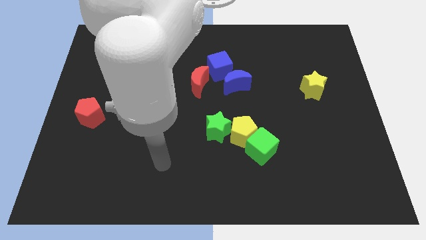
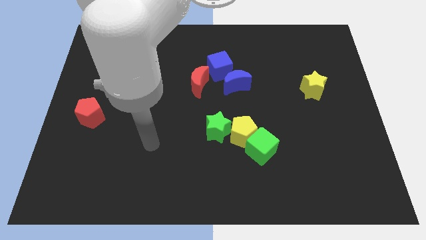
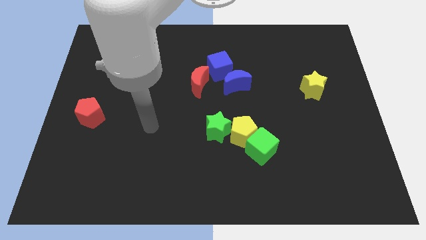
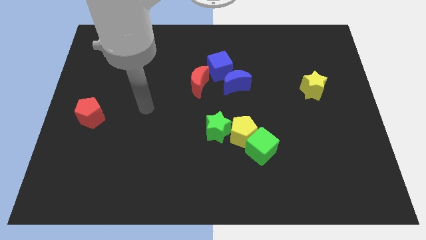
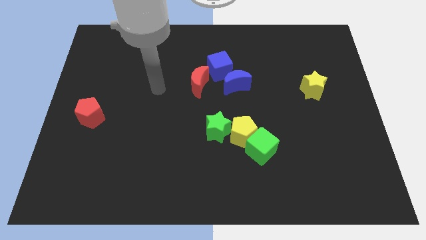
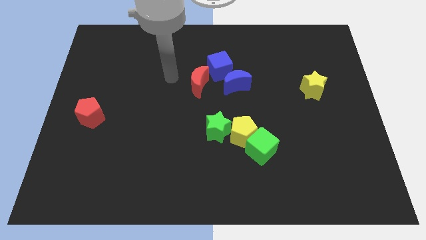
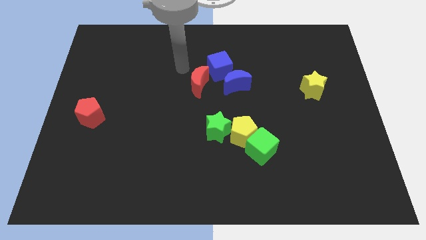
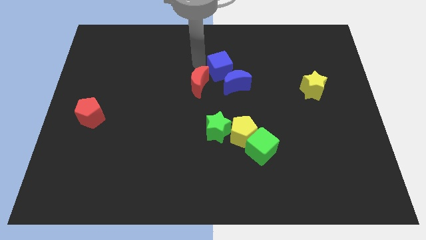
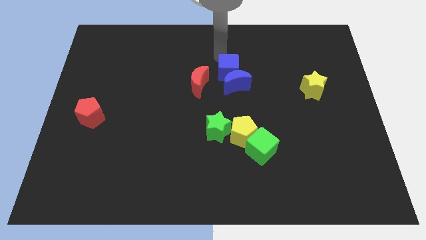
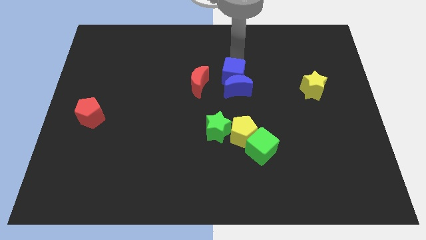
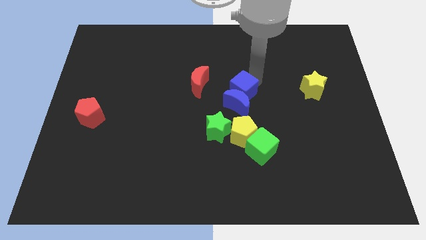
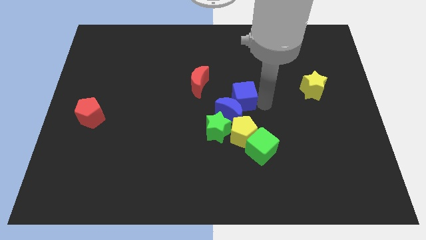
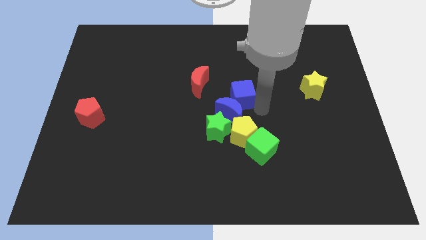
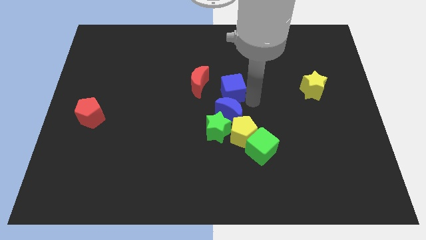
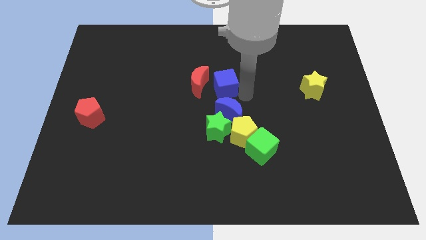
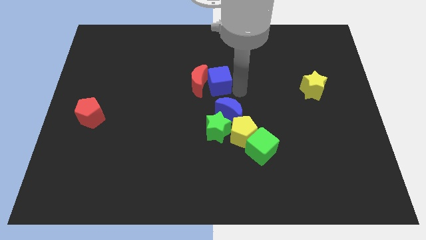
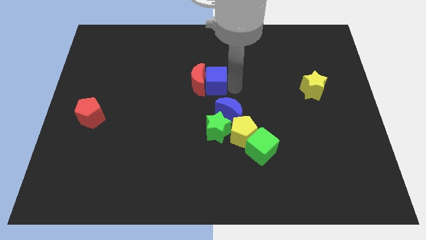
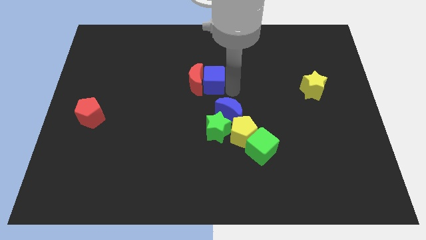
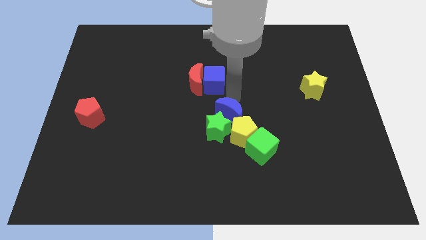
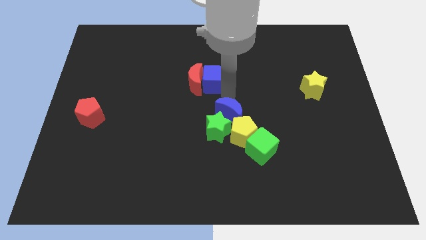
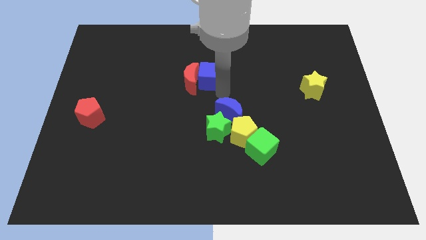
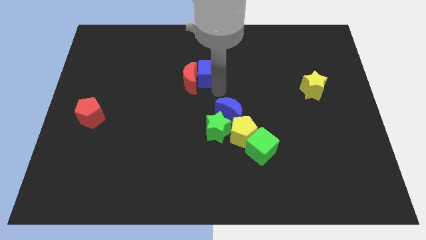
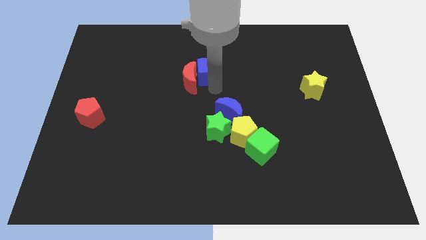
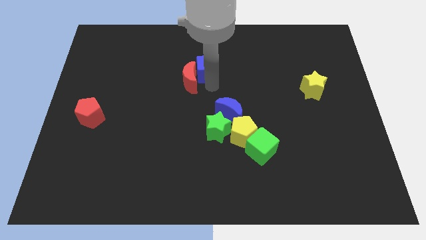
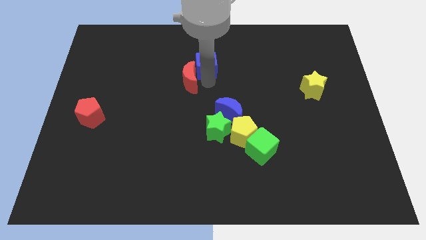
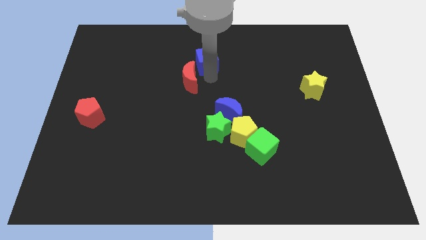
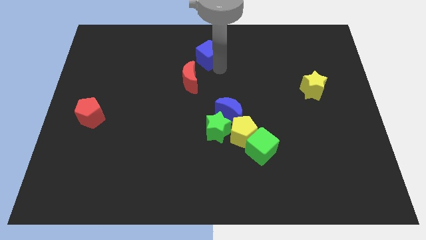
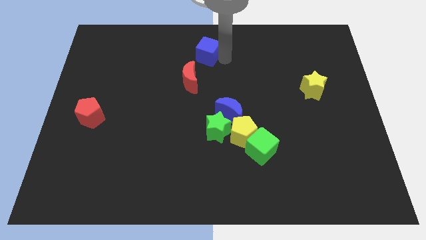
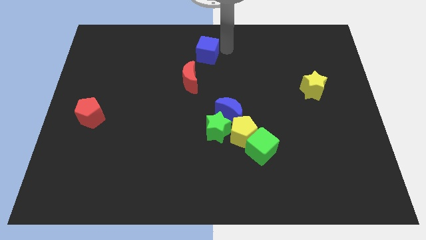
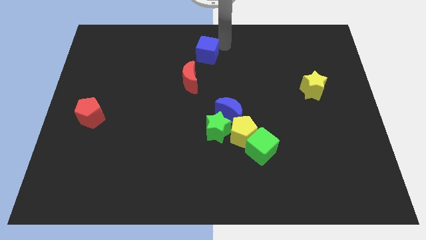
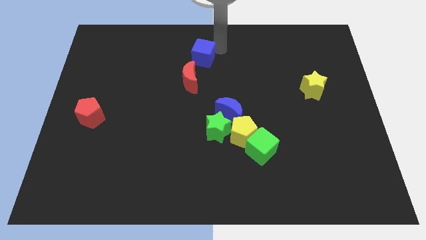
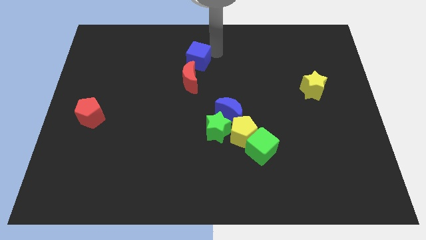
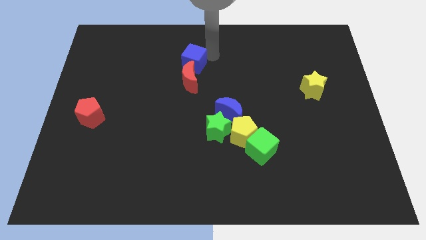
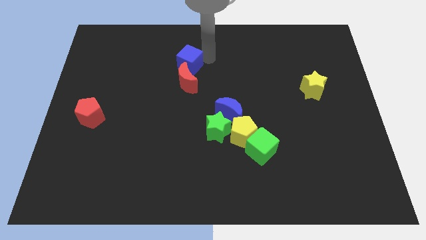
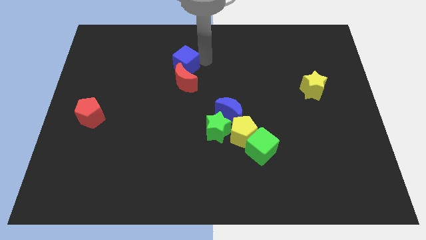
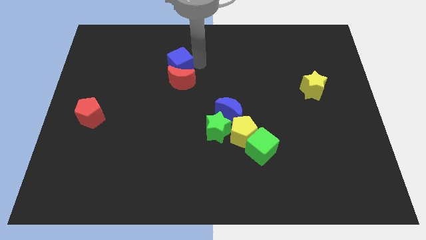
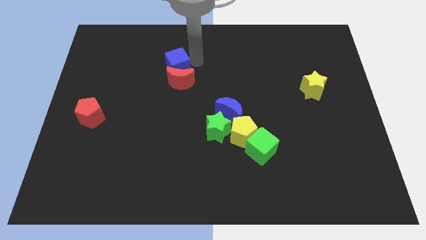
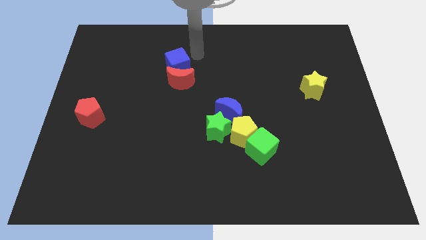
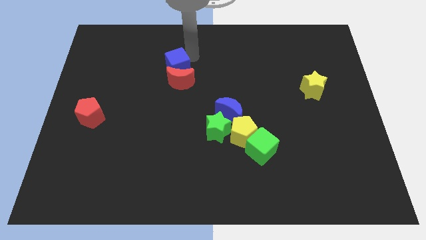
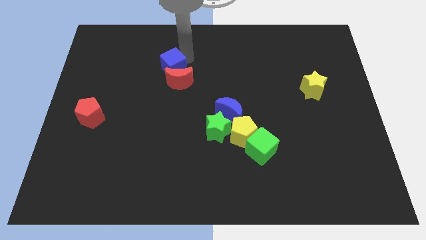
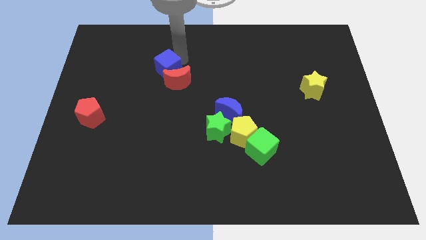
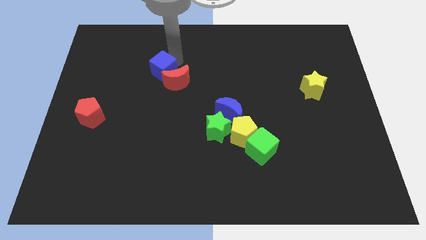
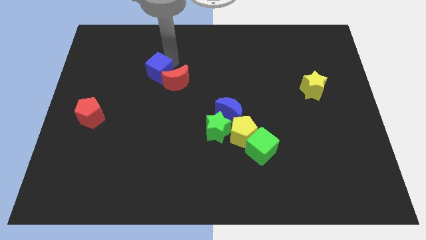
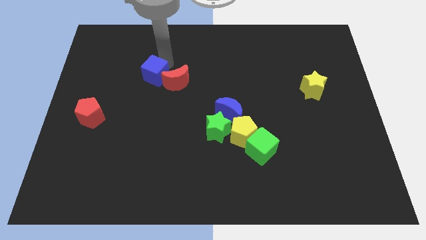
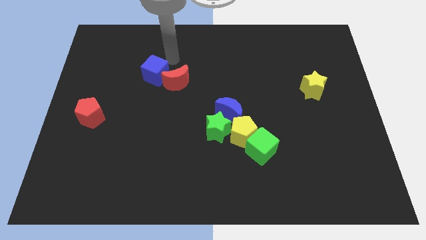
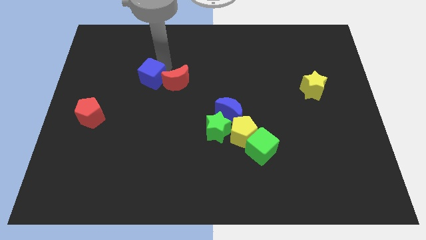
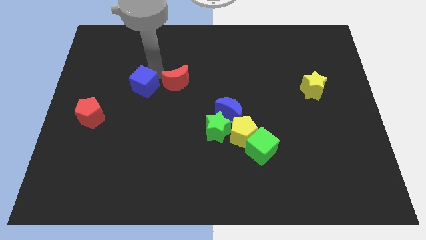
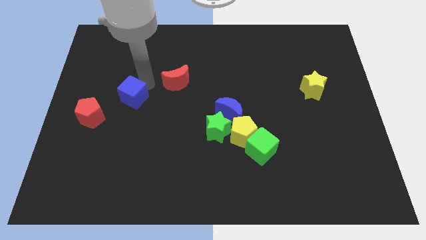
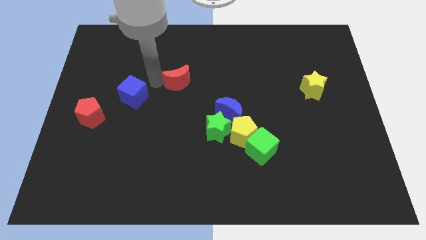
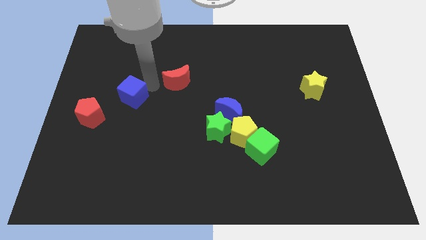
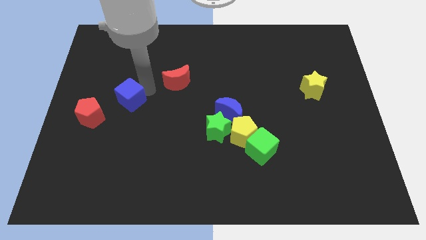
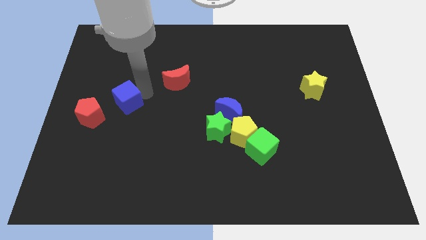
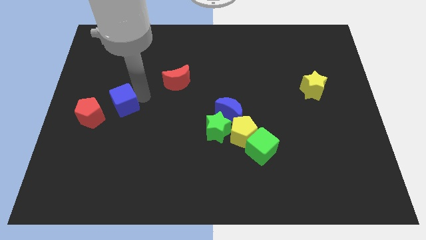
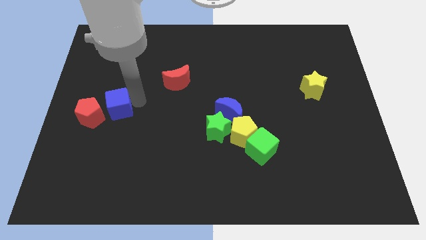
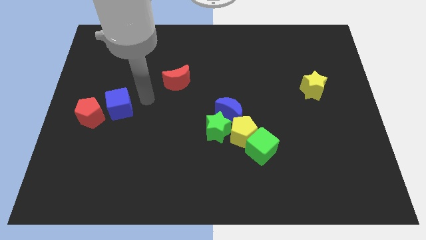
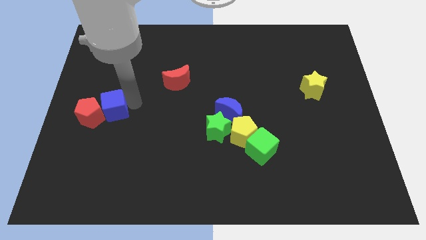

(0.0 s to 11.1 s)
move the blue cube to the red pentagon

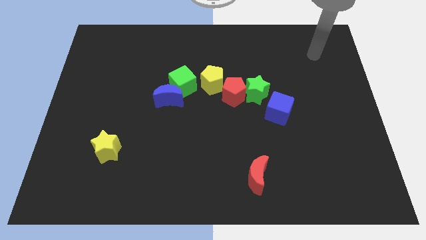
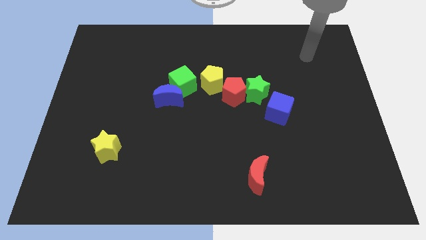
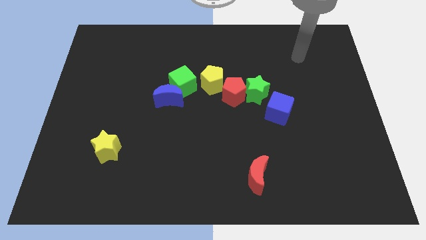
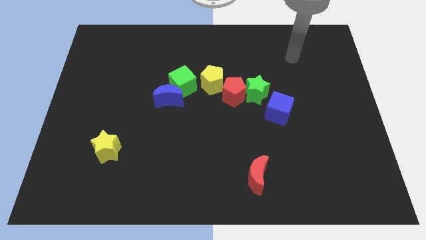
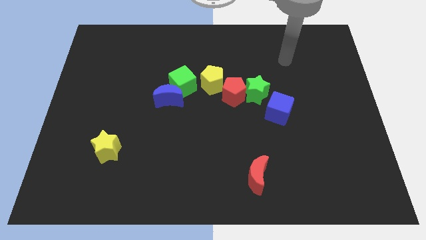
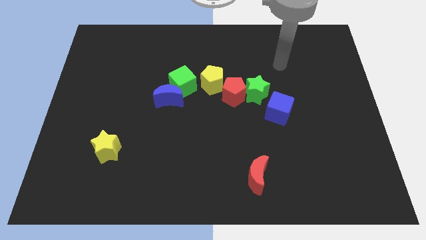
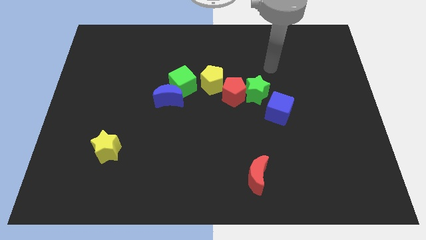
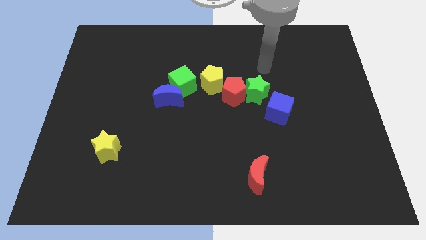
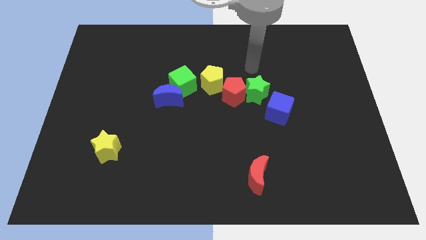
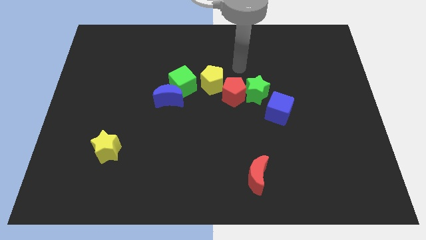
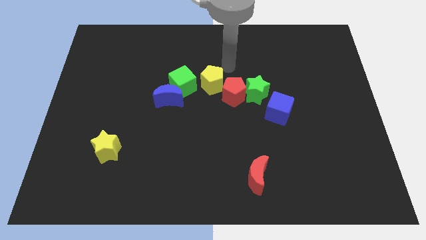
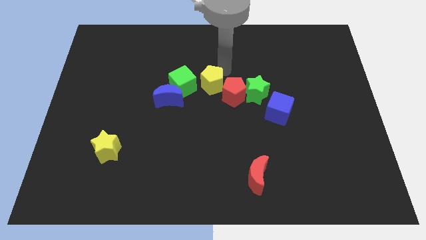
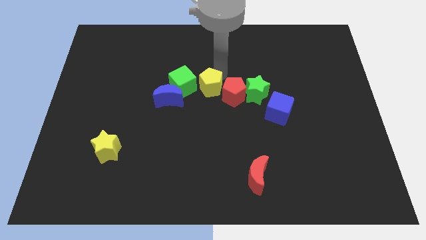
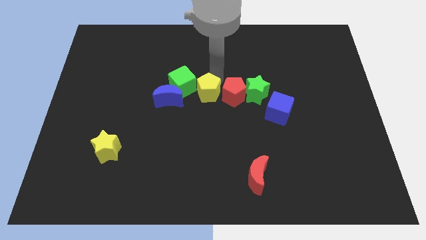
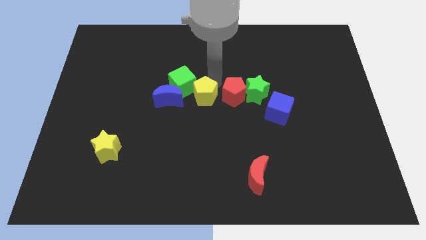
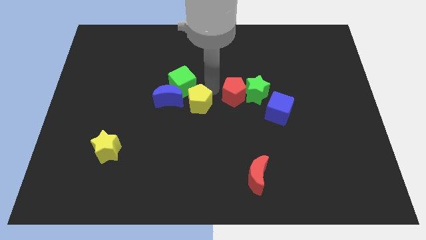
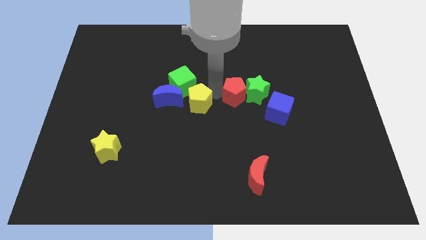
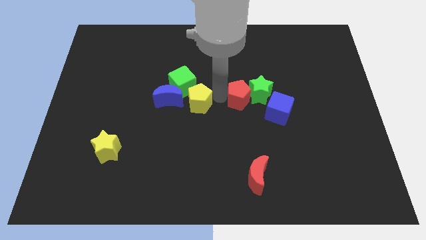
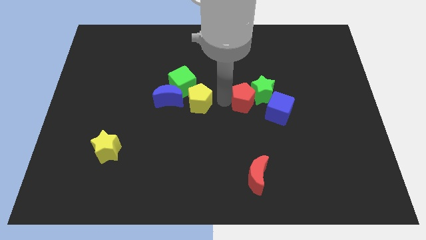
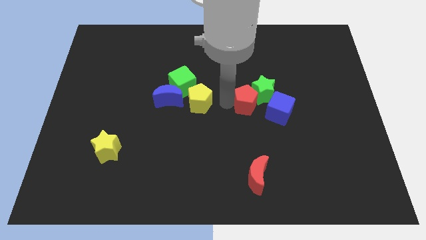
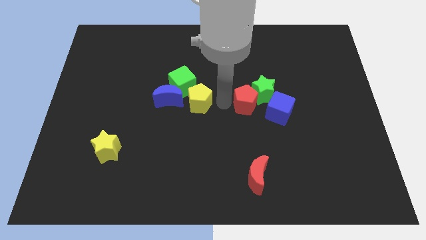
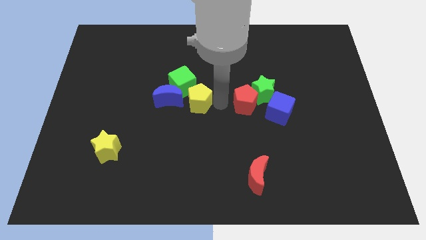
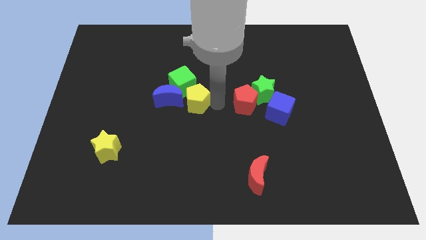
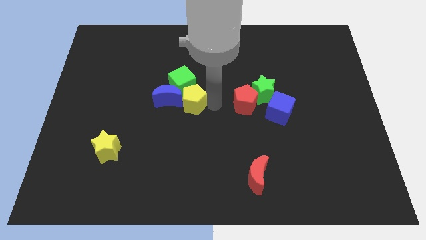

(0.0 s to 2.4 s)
put the yellow pentagon towards the blue moon
